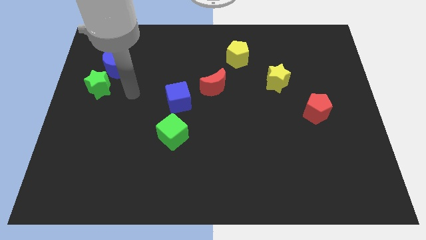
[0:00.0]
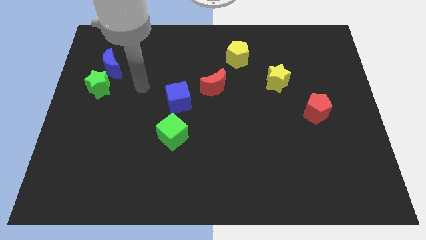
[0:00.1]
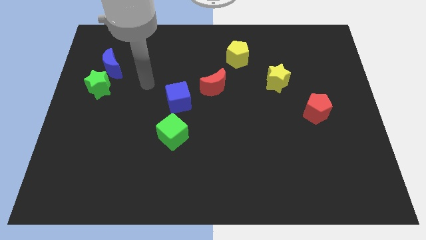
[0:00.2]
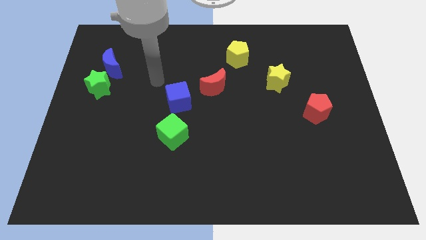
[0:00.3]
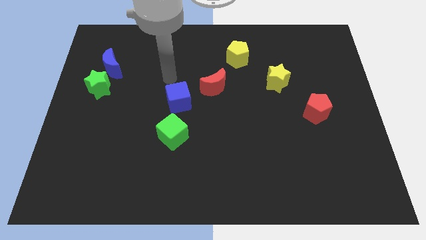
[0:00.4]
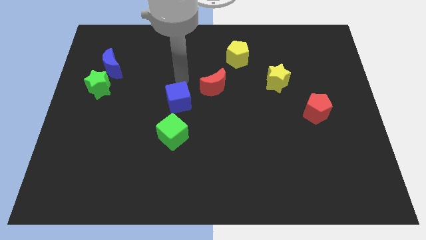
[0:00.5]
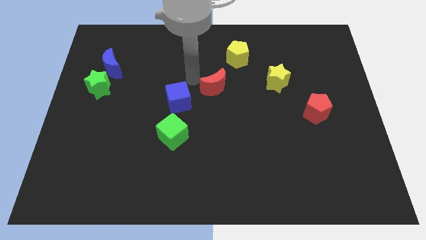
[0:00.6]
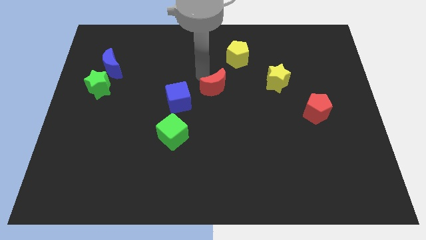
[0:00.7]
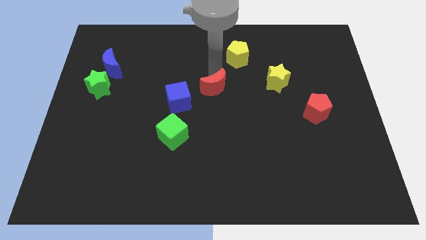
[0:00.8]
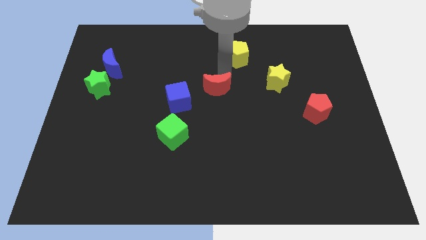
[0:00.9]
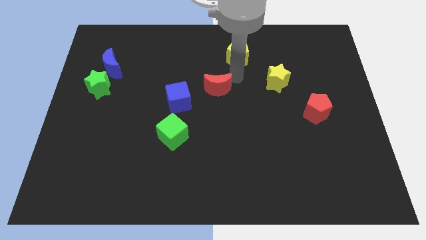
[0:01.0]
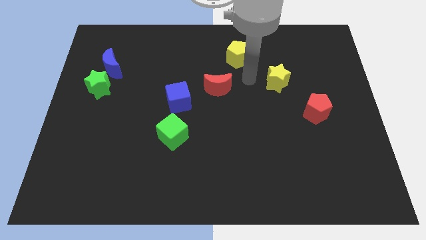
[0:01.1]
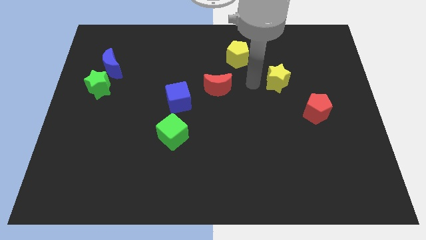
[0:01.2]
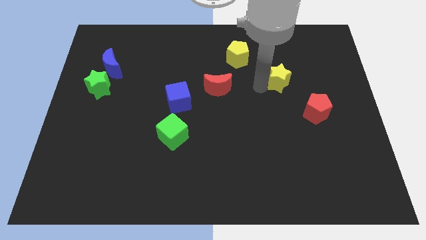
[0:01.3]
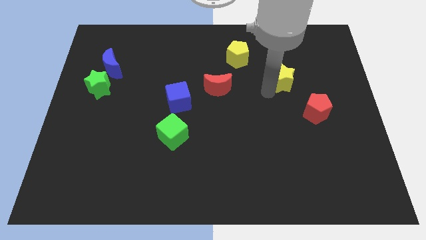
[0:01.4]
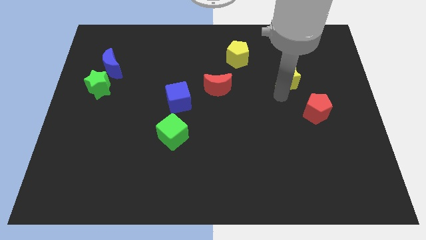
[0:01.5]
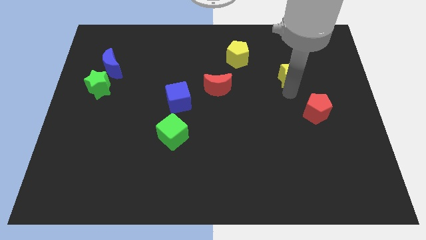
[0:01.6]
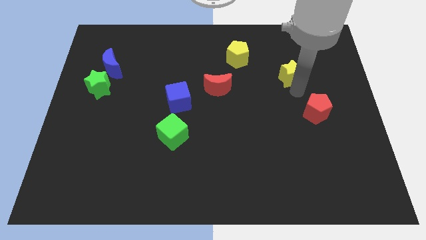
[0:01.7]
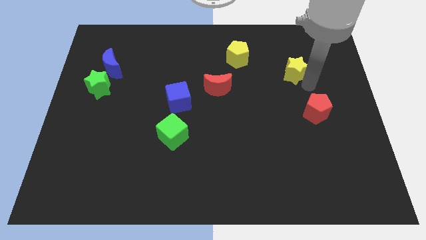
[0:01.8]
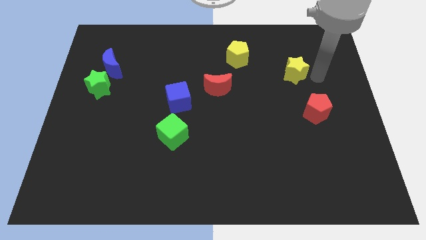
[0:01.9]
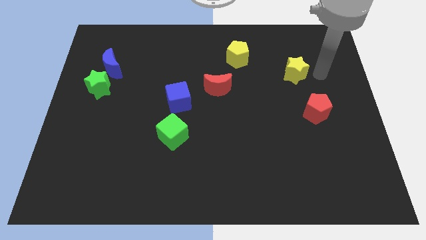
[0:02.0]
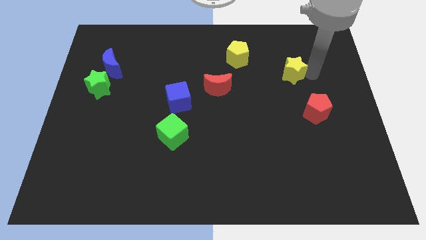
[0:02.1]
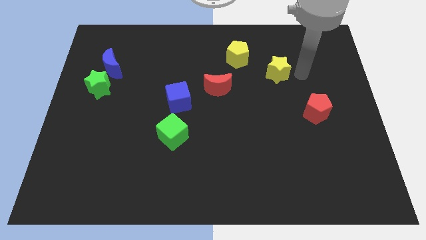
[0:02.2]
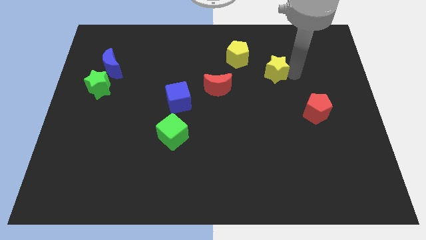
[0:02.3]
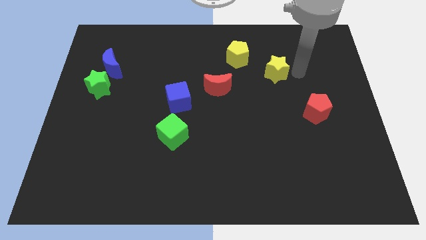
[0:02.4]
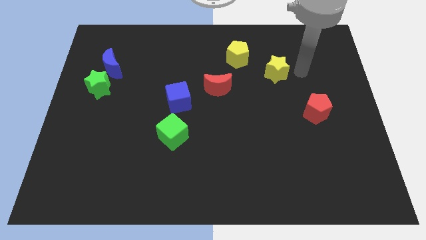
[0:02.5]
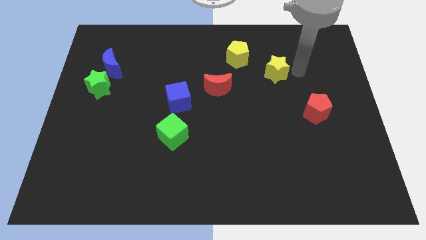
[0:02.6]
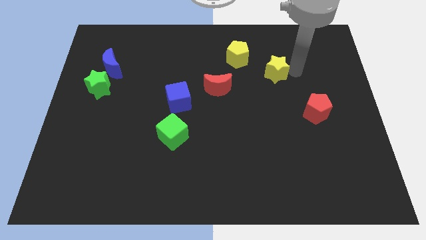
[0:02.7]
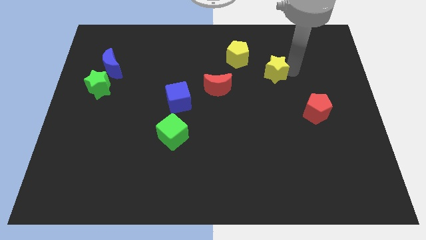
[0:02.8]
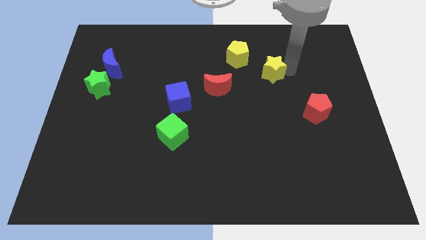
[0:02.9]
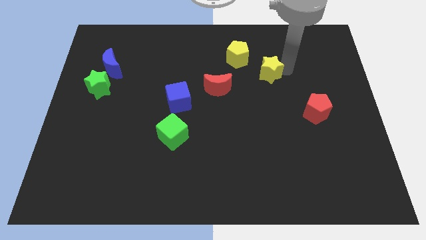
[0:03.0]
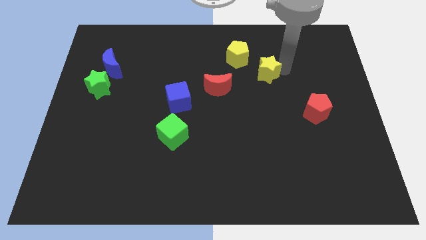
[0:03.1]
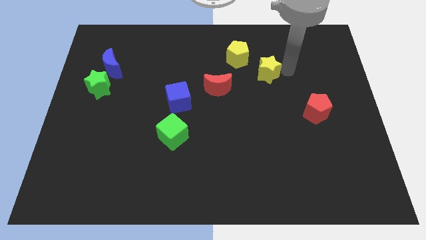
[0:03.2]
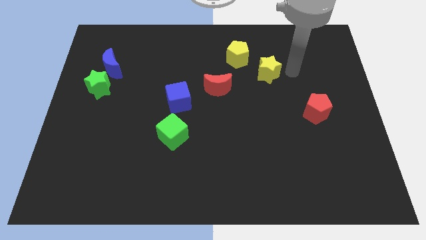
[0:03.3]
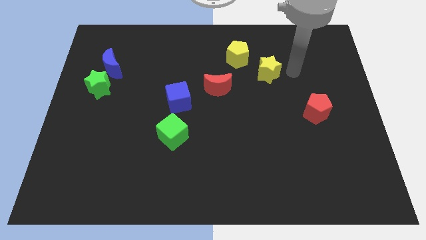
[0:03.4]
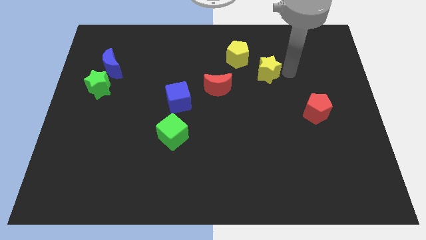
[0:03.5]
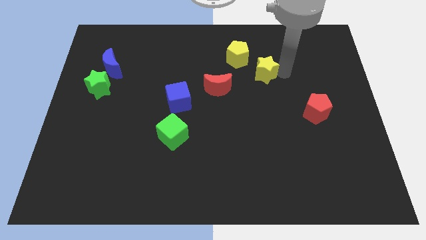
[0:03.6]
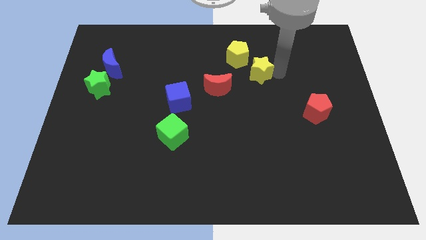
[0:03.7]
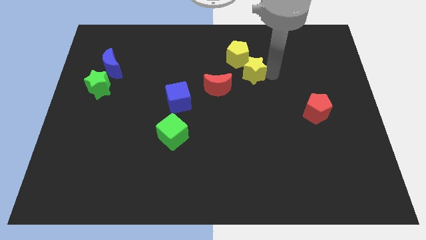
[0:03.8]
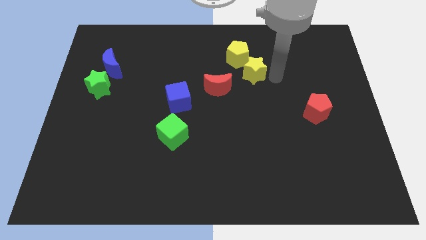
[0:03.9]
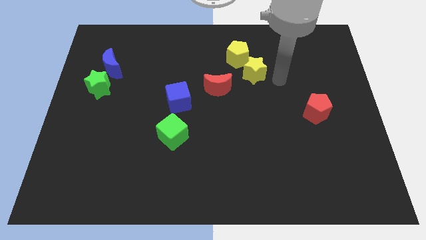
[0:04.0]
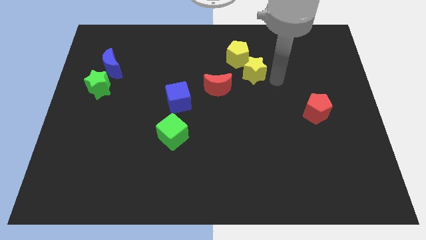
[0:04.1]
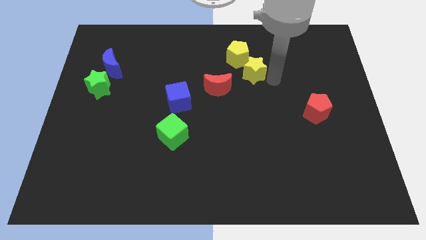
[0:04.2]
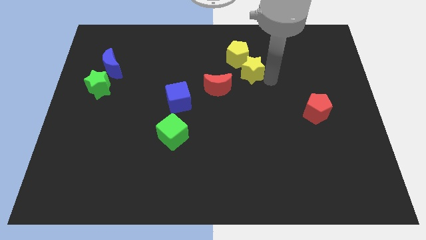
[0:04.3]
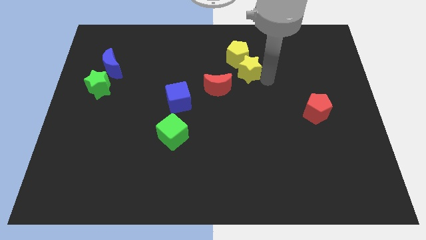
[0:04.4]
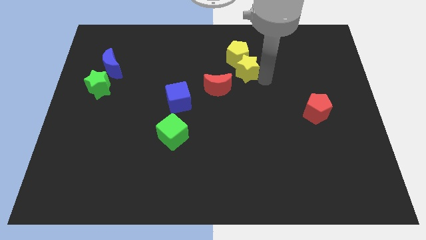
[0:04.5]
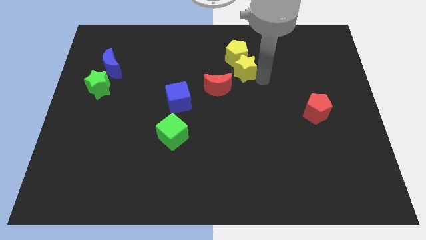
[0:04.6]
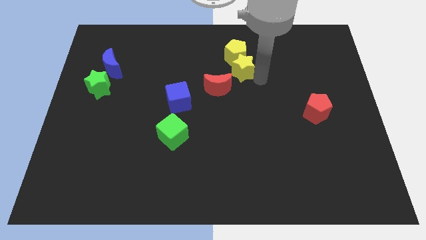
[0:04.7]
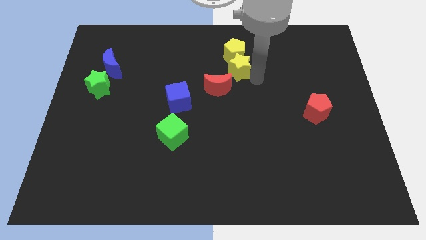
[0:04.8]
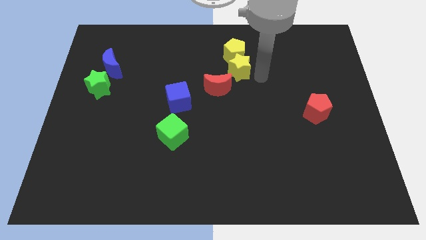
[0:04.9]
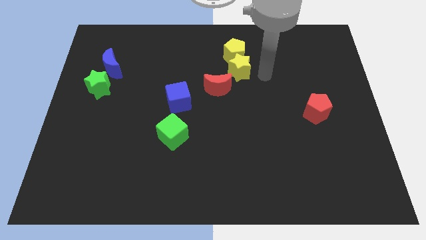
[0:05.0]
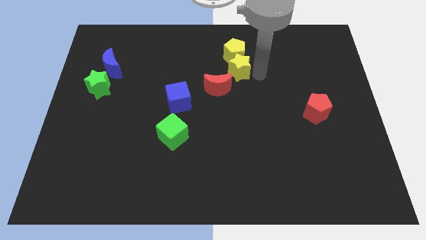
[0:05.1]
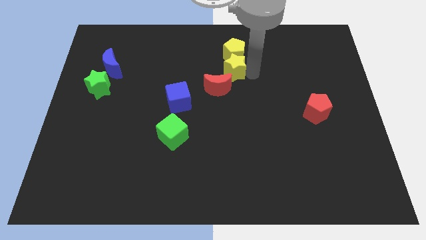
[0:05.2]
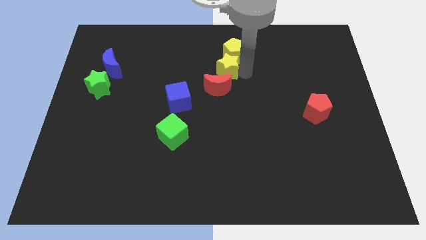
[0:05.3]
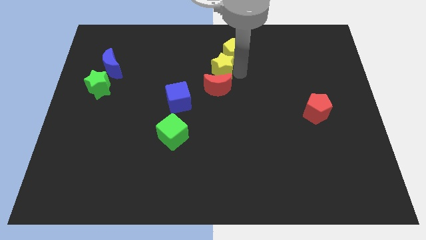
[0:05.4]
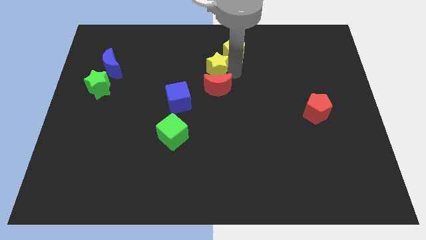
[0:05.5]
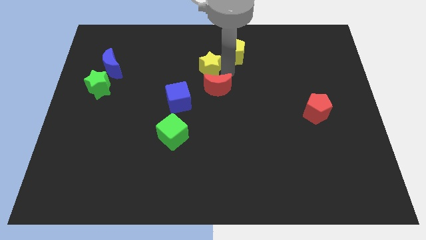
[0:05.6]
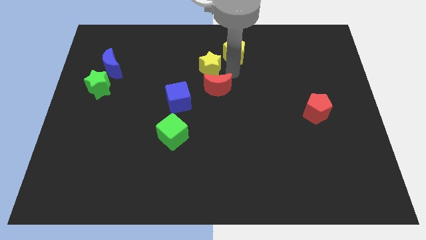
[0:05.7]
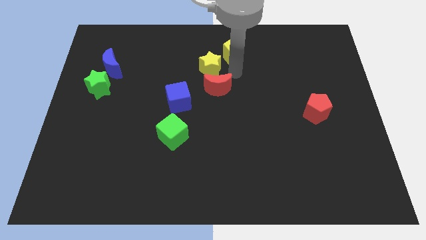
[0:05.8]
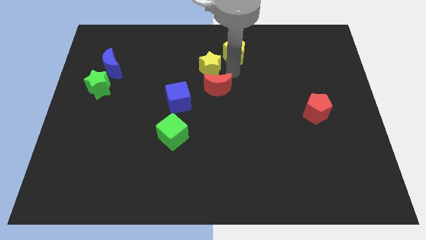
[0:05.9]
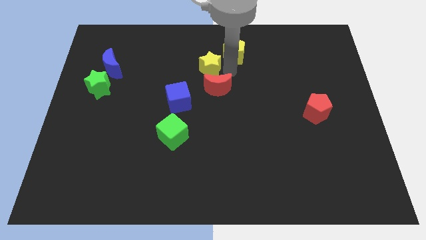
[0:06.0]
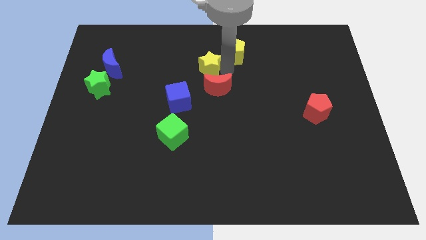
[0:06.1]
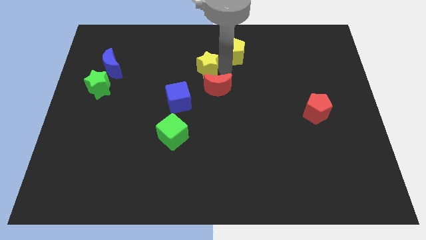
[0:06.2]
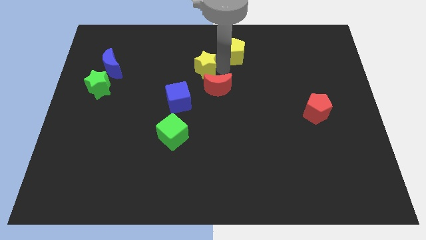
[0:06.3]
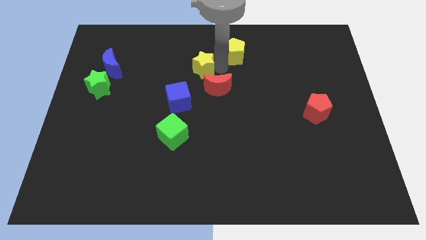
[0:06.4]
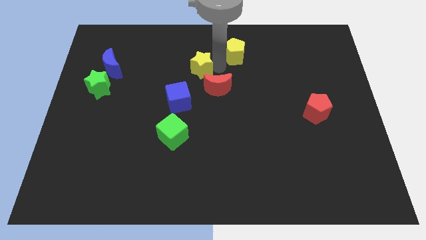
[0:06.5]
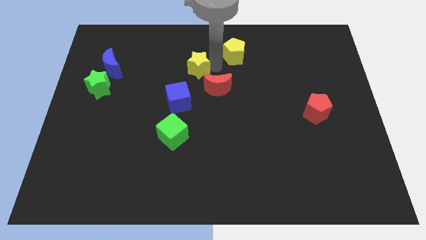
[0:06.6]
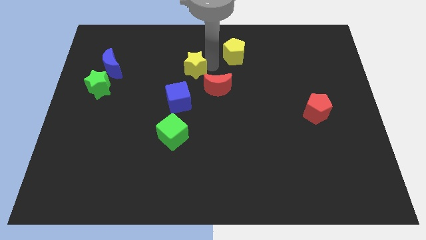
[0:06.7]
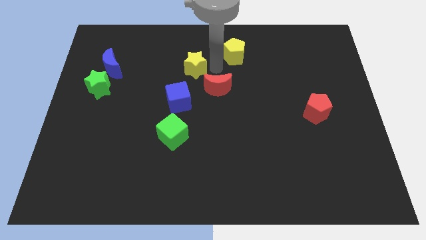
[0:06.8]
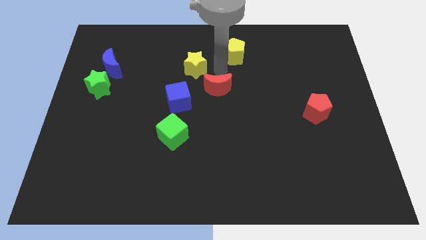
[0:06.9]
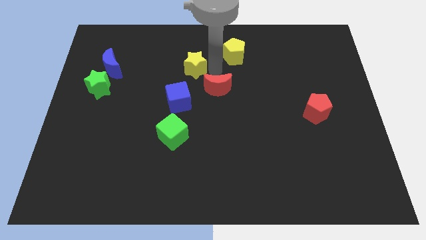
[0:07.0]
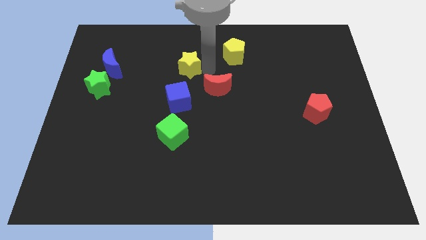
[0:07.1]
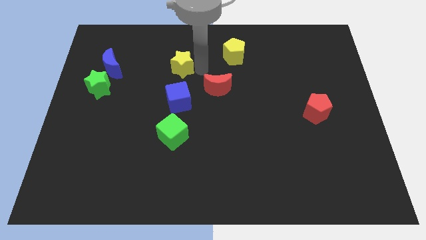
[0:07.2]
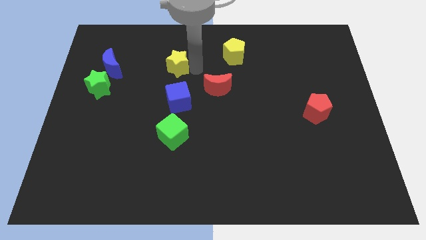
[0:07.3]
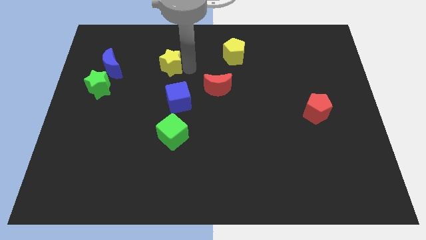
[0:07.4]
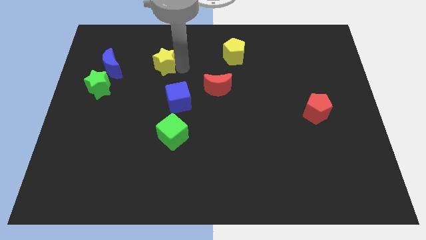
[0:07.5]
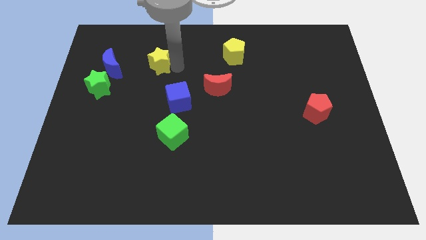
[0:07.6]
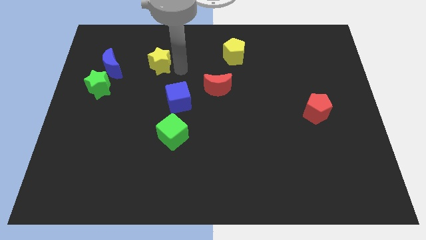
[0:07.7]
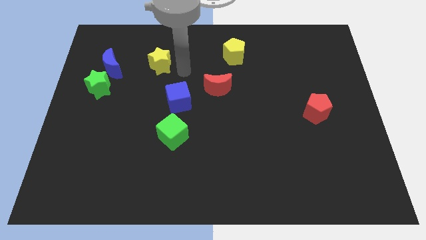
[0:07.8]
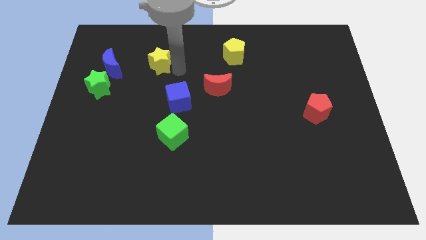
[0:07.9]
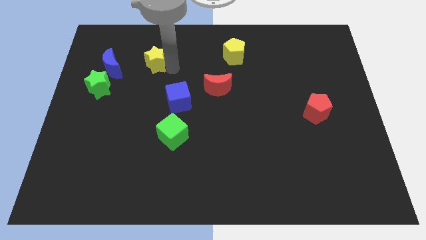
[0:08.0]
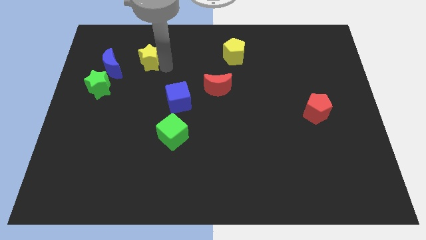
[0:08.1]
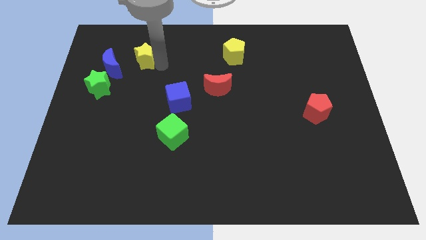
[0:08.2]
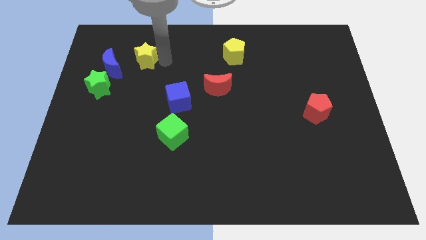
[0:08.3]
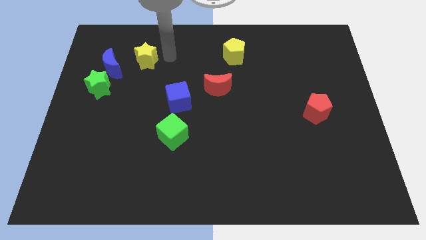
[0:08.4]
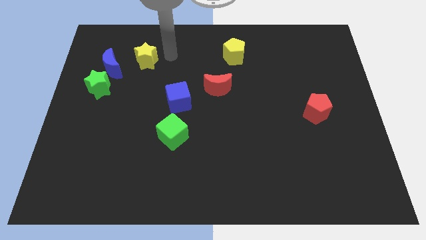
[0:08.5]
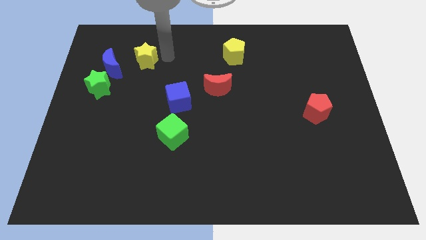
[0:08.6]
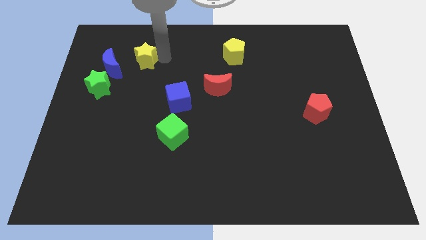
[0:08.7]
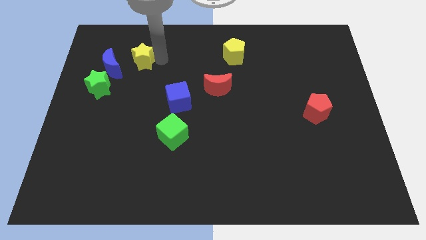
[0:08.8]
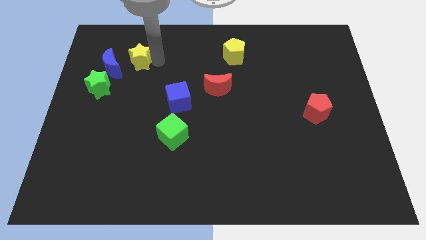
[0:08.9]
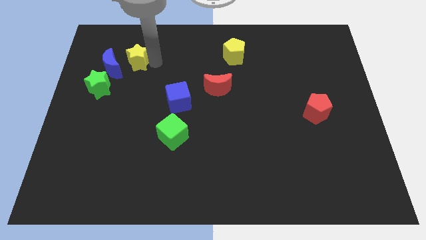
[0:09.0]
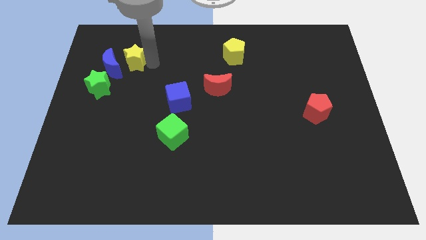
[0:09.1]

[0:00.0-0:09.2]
put the yellow star to the blue moon
